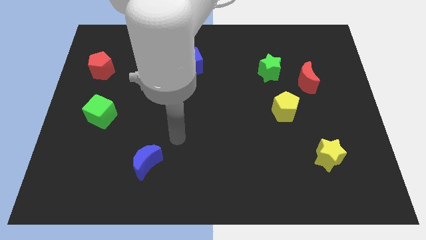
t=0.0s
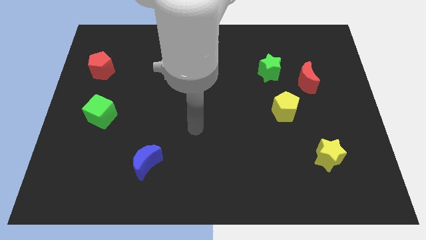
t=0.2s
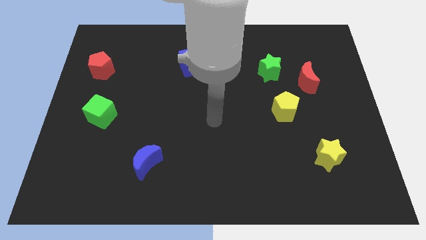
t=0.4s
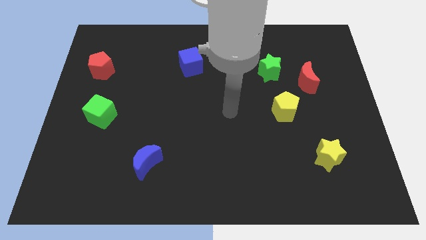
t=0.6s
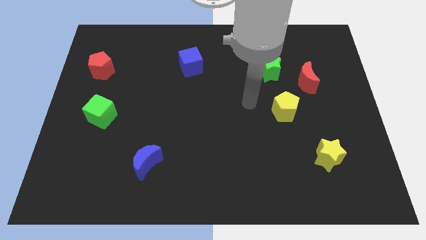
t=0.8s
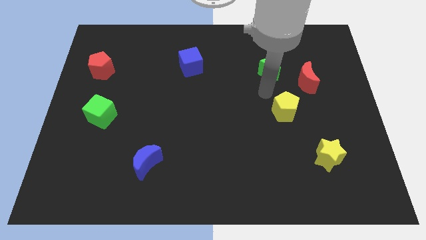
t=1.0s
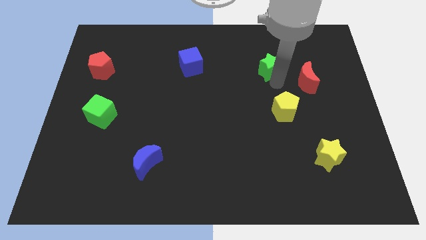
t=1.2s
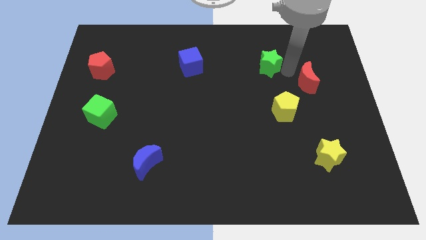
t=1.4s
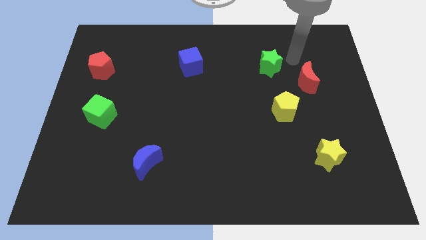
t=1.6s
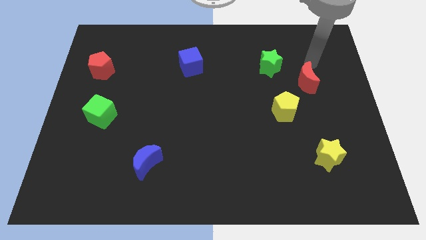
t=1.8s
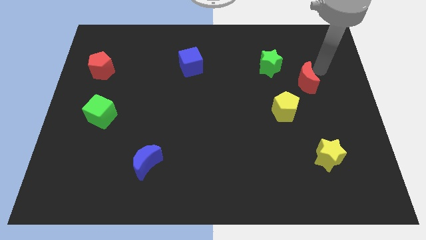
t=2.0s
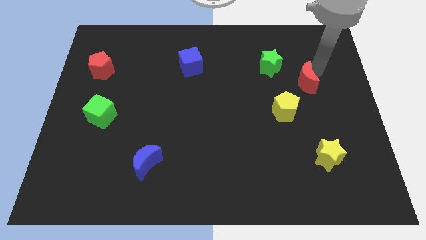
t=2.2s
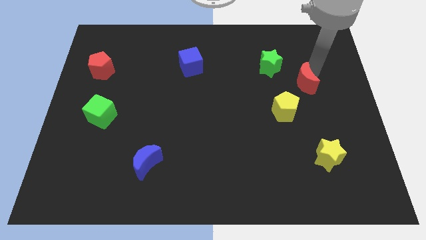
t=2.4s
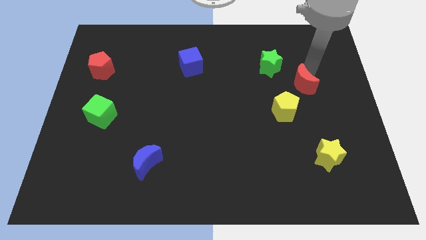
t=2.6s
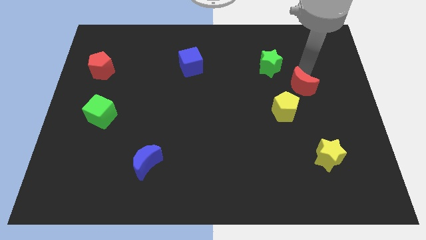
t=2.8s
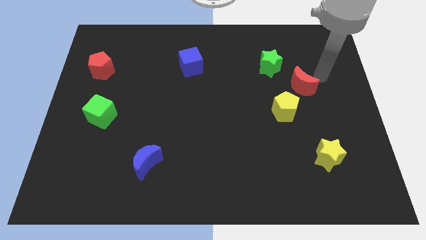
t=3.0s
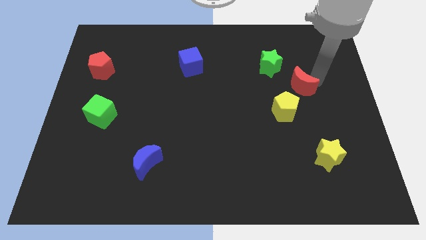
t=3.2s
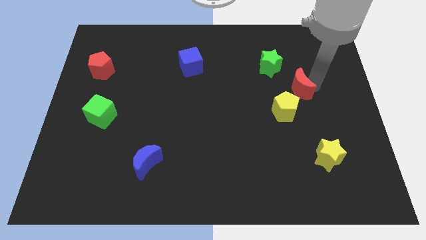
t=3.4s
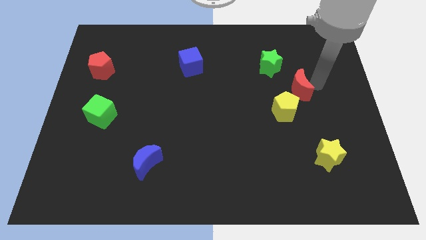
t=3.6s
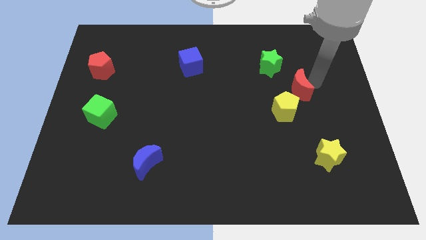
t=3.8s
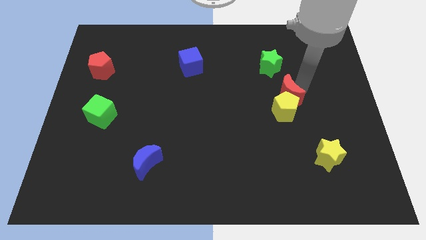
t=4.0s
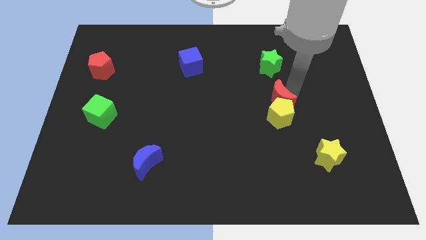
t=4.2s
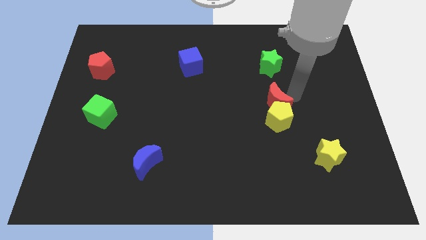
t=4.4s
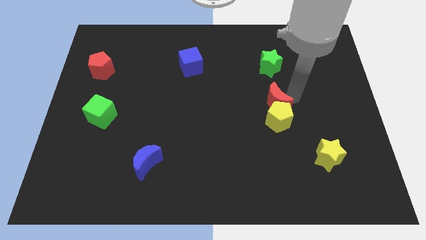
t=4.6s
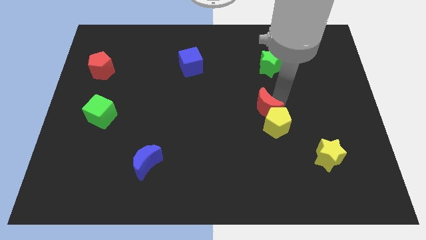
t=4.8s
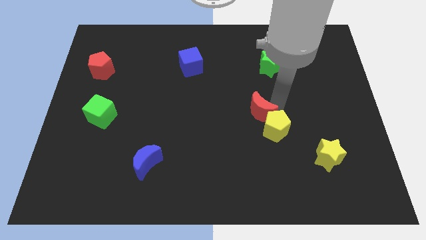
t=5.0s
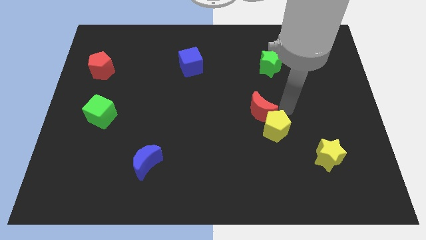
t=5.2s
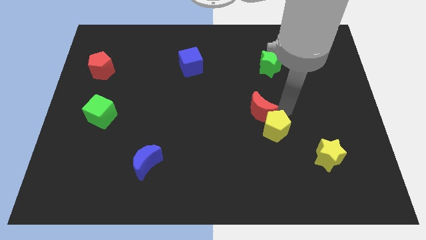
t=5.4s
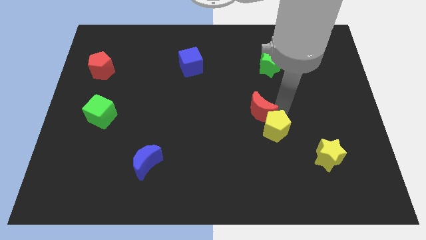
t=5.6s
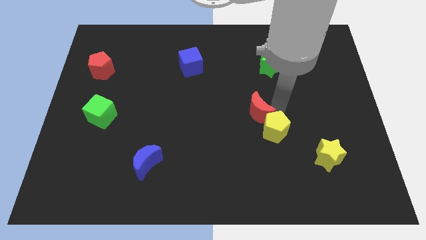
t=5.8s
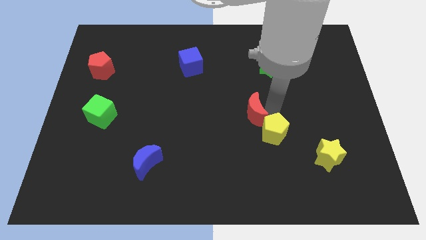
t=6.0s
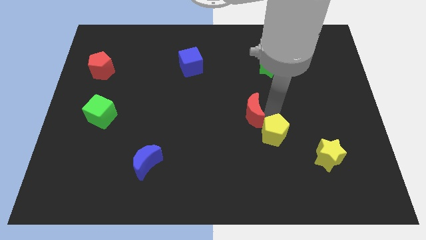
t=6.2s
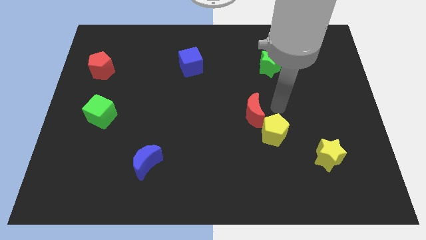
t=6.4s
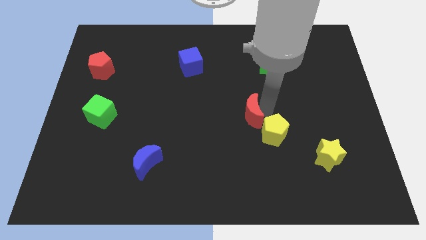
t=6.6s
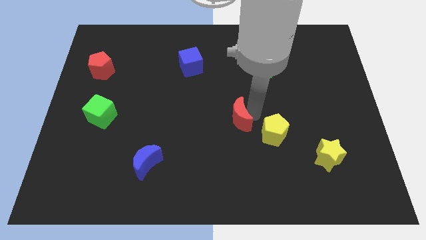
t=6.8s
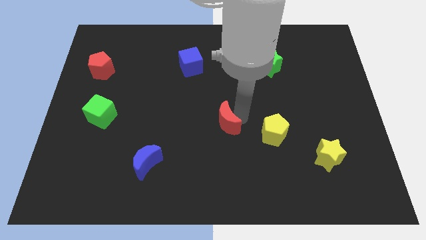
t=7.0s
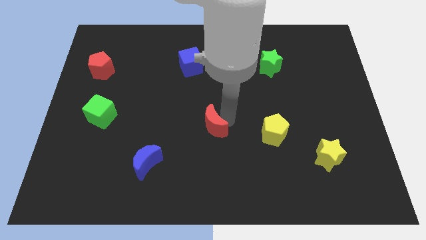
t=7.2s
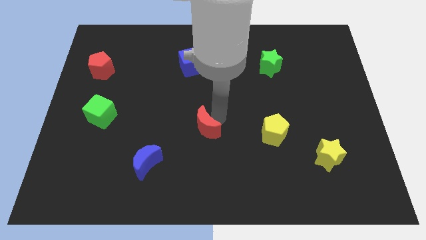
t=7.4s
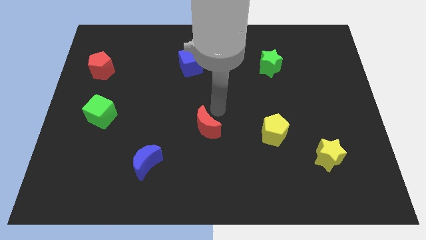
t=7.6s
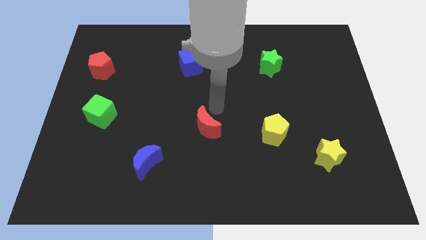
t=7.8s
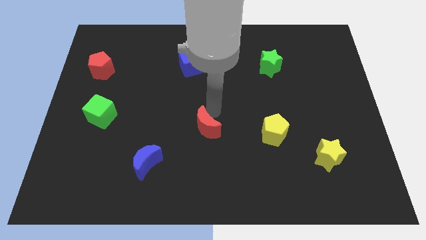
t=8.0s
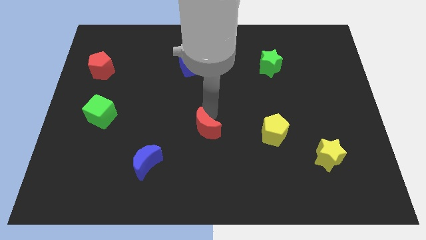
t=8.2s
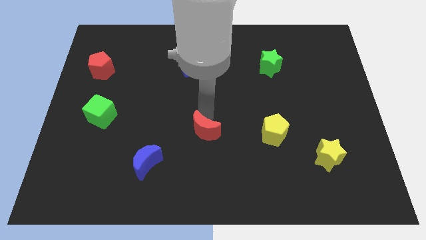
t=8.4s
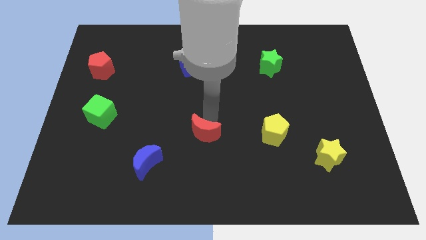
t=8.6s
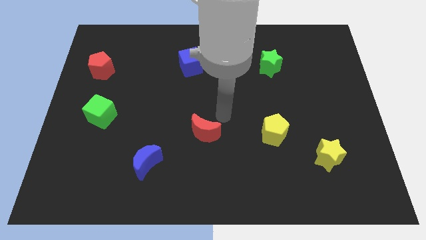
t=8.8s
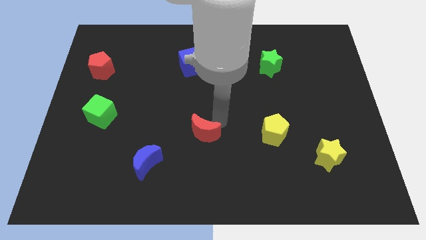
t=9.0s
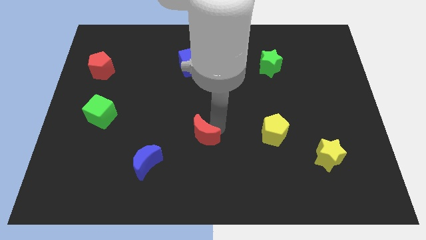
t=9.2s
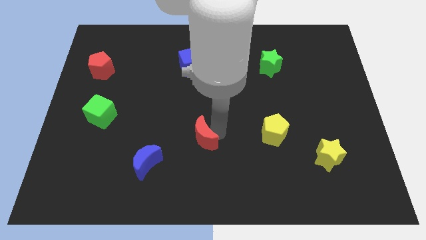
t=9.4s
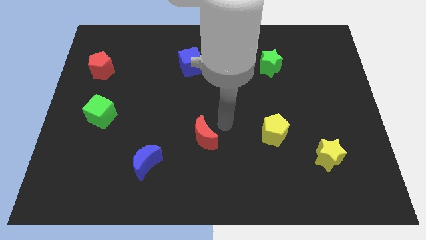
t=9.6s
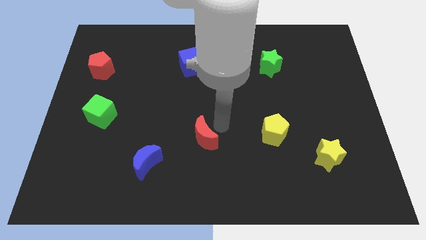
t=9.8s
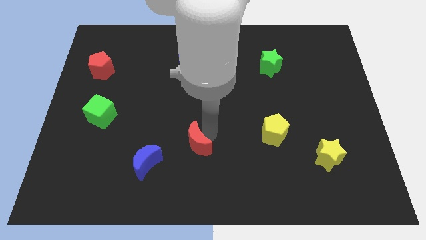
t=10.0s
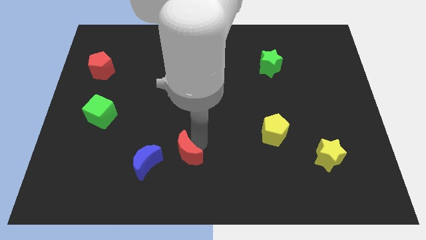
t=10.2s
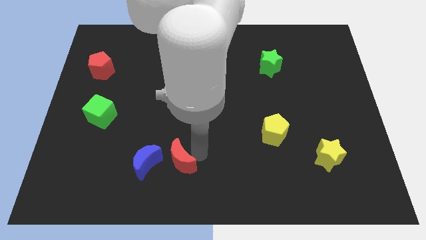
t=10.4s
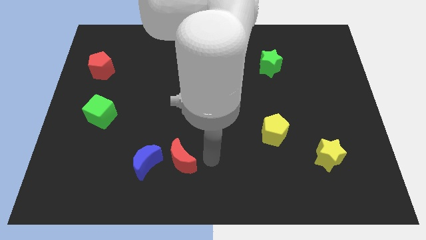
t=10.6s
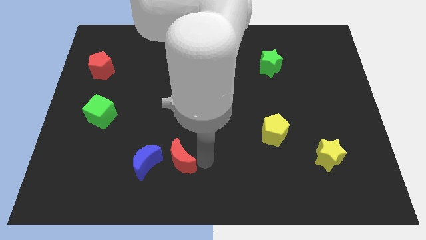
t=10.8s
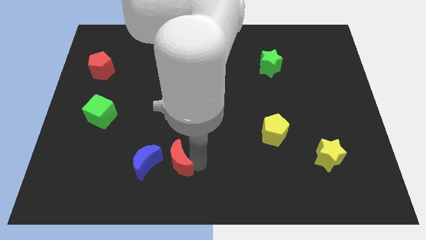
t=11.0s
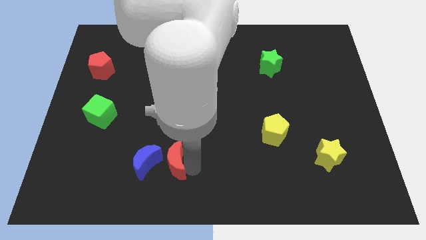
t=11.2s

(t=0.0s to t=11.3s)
slide the red moon towards the blue moon
